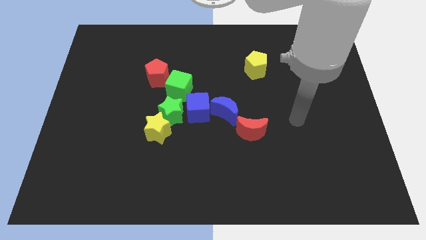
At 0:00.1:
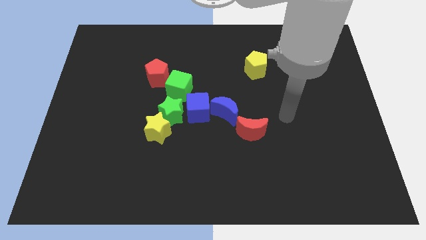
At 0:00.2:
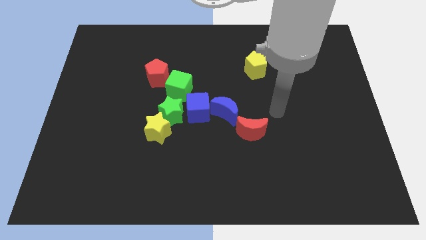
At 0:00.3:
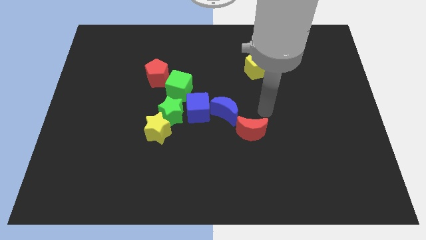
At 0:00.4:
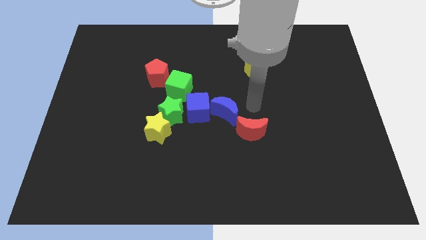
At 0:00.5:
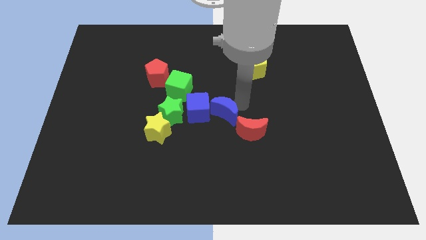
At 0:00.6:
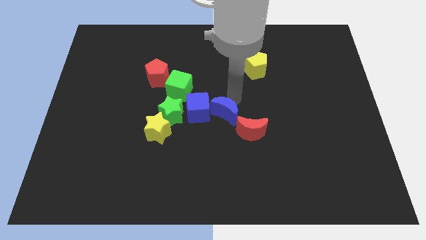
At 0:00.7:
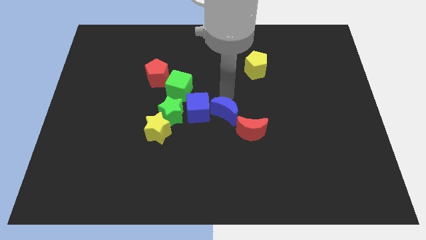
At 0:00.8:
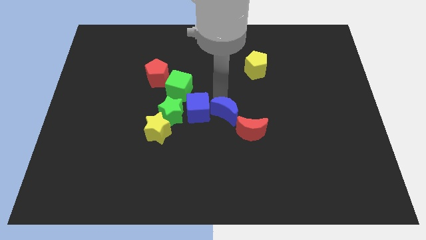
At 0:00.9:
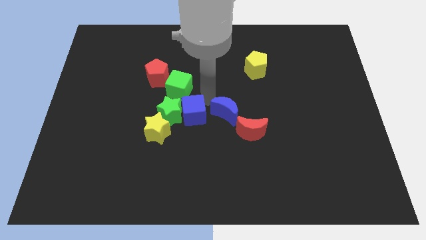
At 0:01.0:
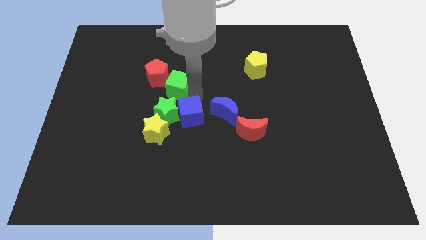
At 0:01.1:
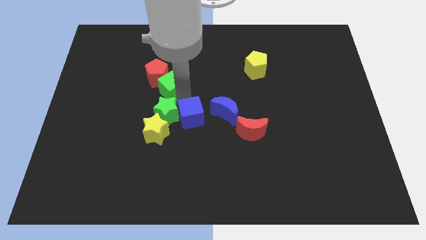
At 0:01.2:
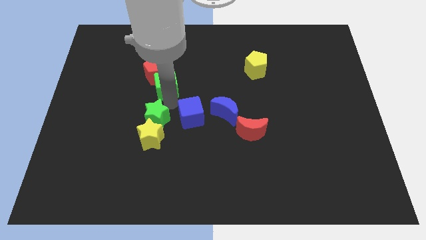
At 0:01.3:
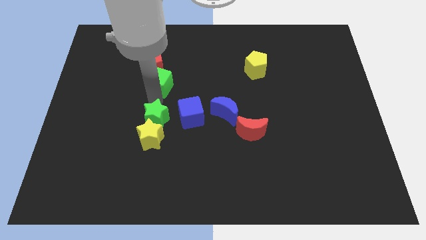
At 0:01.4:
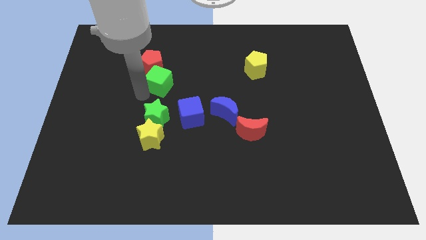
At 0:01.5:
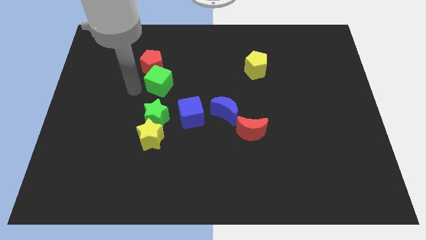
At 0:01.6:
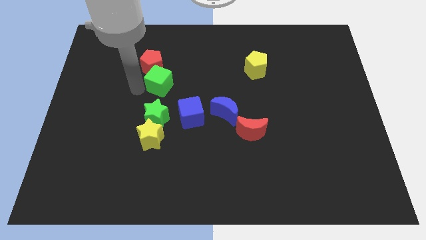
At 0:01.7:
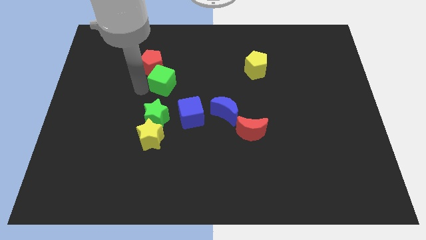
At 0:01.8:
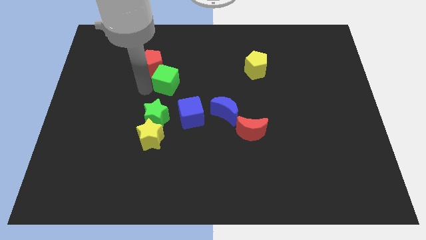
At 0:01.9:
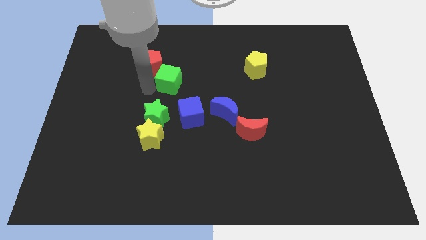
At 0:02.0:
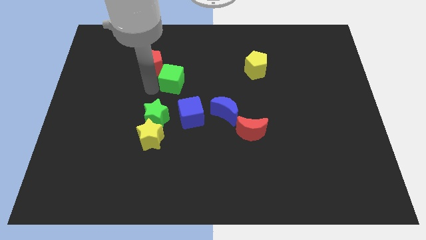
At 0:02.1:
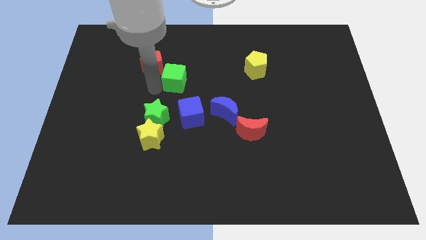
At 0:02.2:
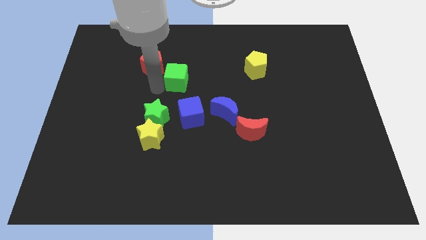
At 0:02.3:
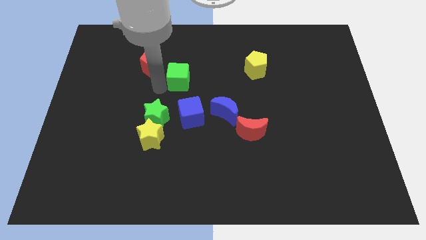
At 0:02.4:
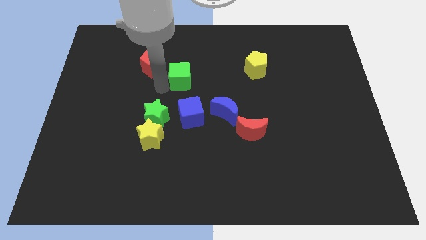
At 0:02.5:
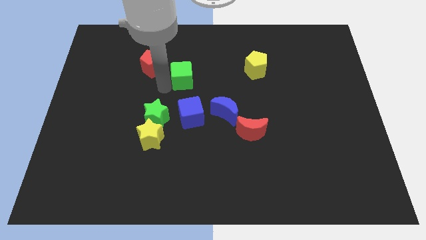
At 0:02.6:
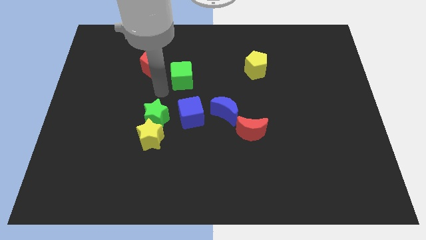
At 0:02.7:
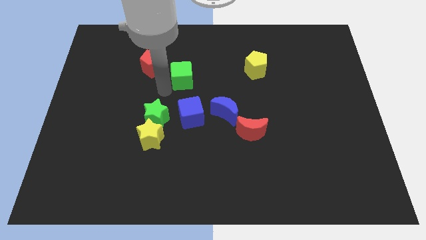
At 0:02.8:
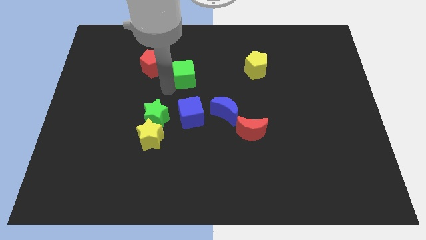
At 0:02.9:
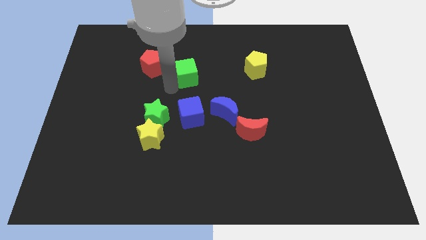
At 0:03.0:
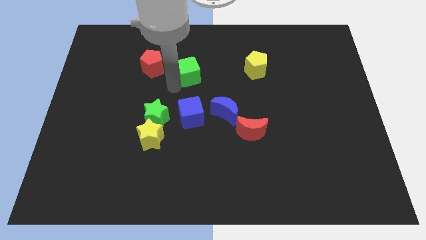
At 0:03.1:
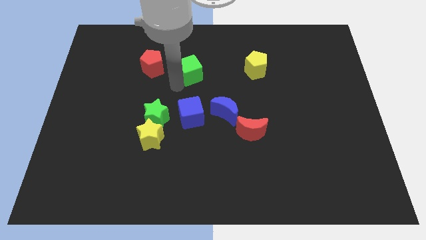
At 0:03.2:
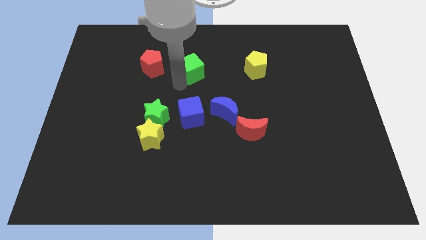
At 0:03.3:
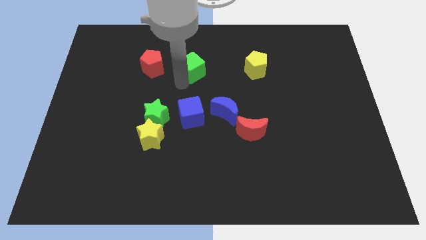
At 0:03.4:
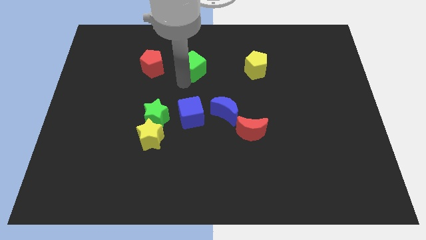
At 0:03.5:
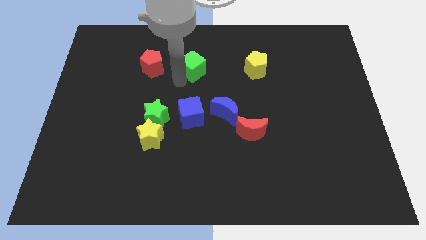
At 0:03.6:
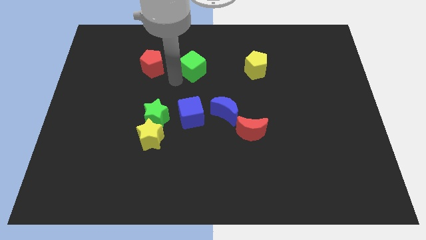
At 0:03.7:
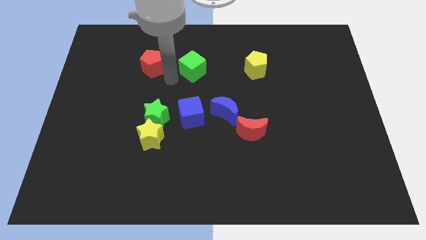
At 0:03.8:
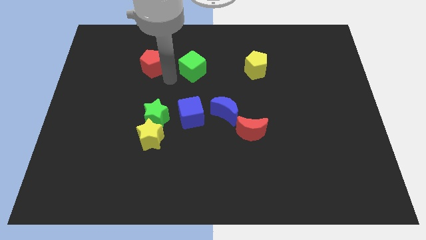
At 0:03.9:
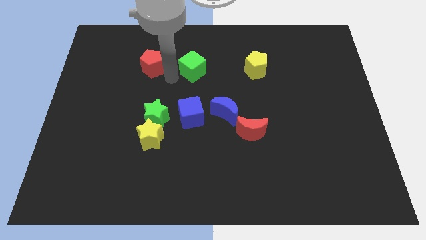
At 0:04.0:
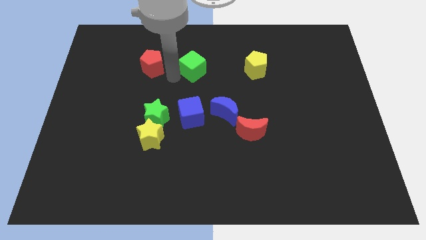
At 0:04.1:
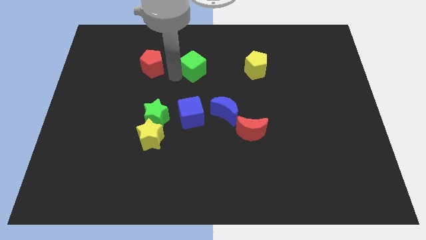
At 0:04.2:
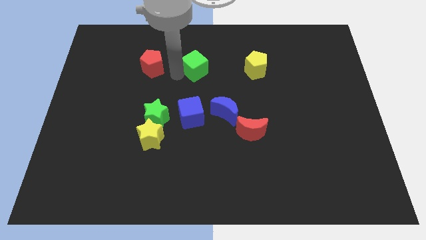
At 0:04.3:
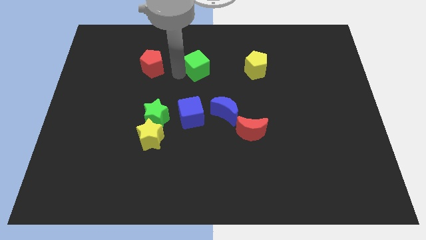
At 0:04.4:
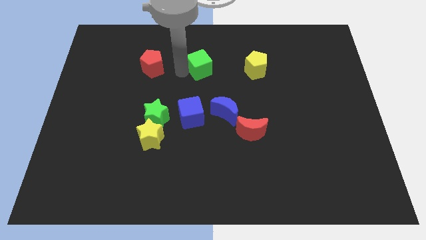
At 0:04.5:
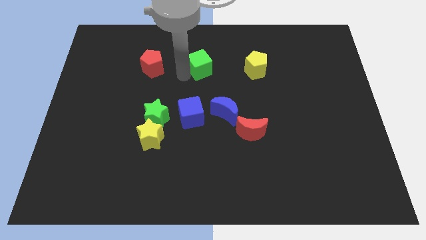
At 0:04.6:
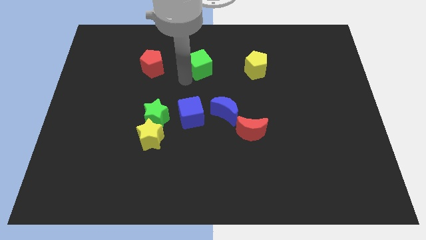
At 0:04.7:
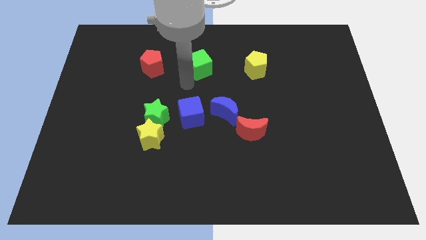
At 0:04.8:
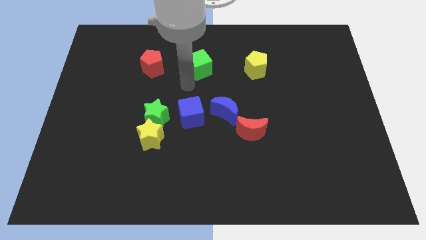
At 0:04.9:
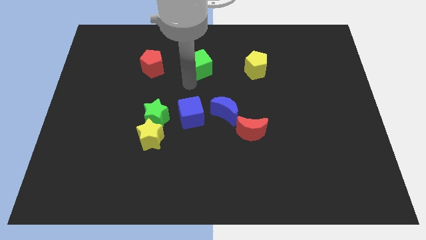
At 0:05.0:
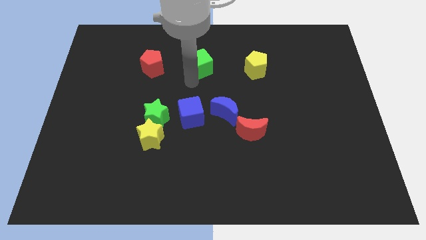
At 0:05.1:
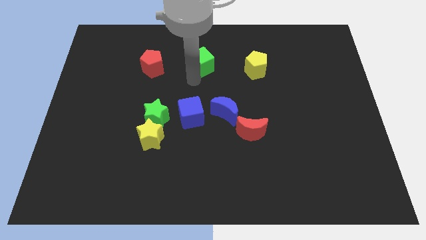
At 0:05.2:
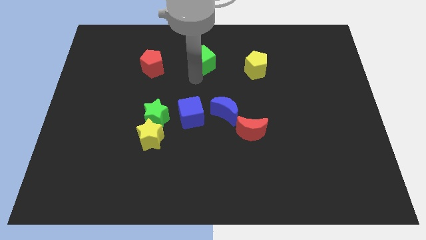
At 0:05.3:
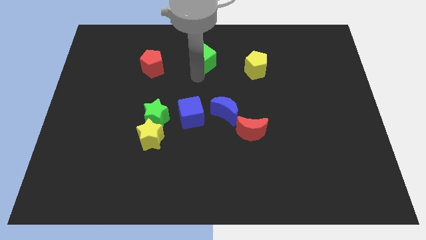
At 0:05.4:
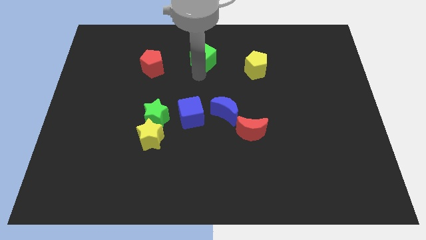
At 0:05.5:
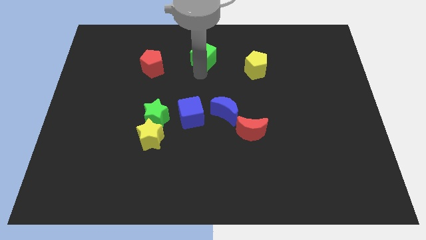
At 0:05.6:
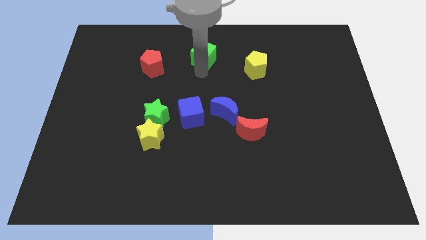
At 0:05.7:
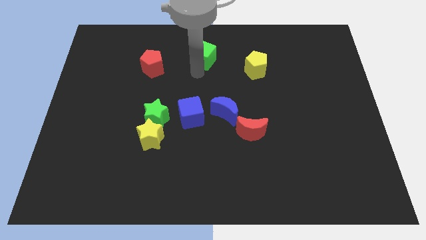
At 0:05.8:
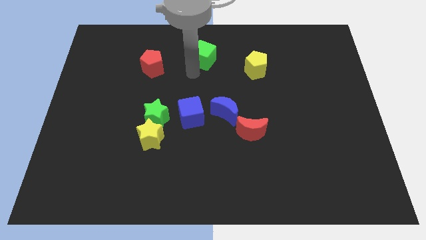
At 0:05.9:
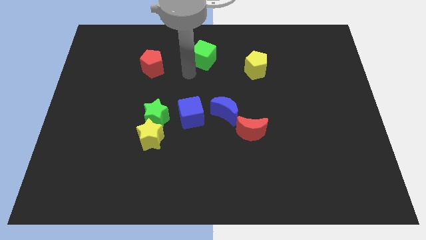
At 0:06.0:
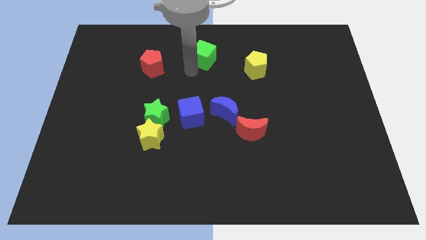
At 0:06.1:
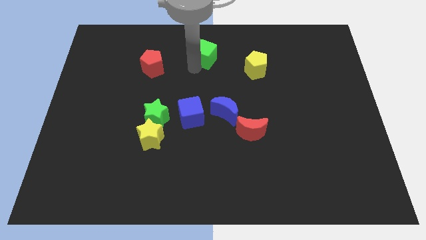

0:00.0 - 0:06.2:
move the green cube to the top
